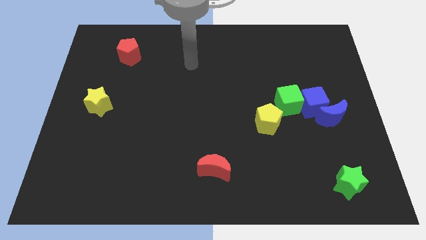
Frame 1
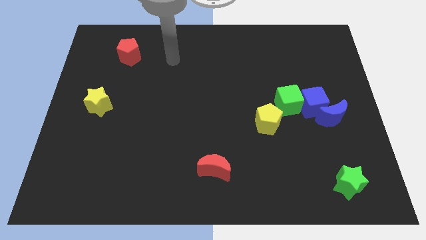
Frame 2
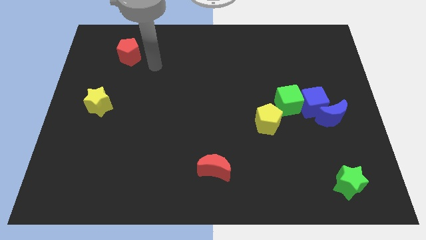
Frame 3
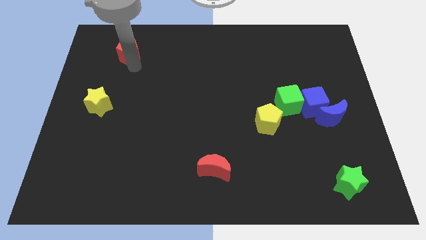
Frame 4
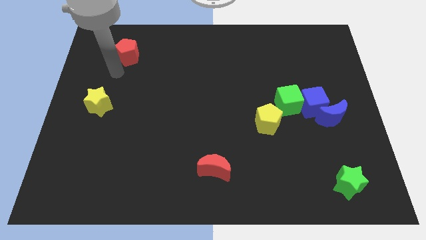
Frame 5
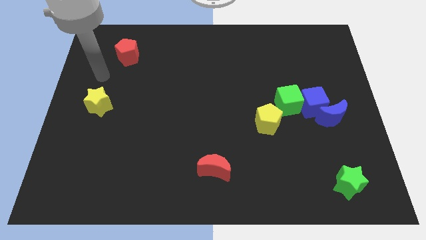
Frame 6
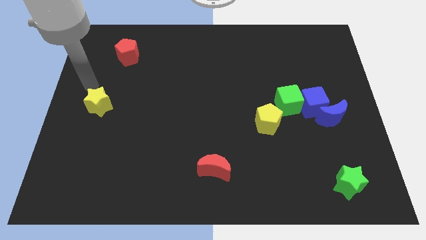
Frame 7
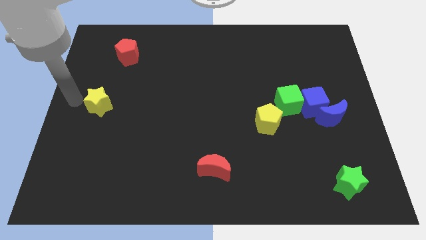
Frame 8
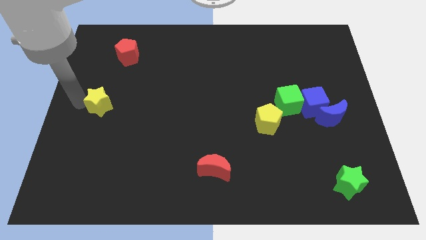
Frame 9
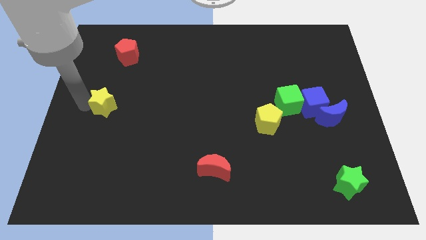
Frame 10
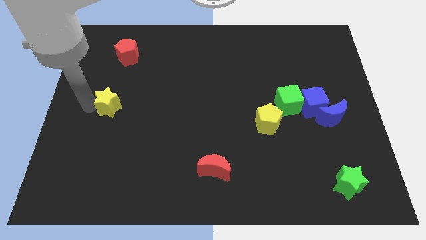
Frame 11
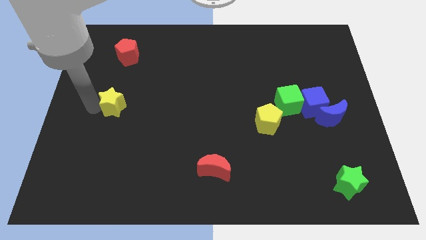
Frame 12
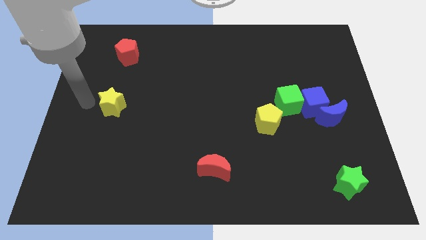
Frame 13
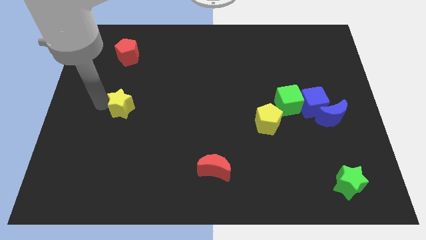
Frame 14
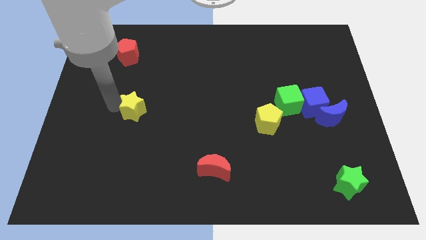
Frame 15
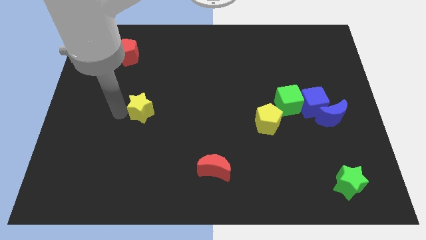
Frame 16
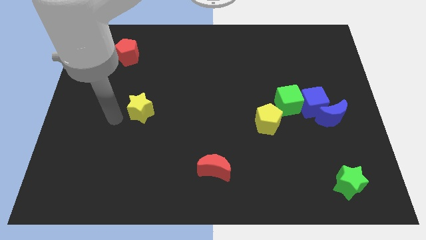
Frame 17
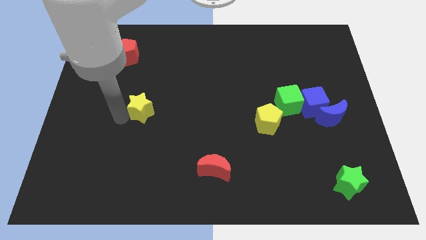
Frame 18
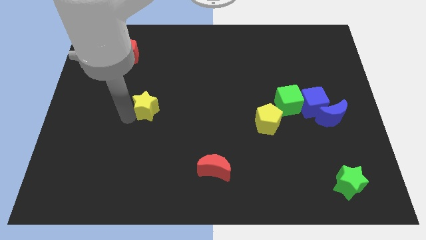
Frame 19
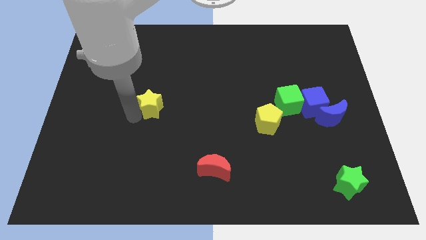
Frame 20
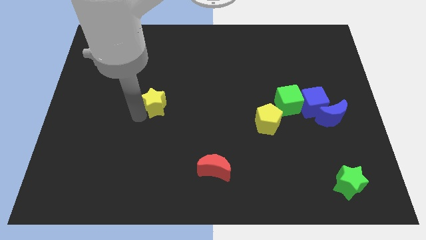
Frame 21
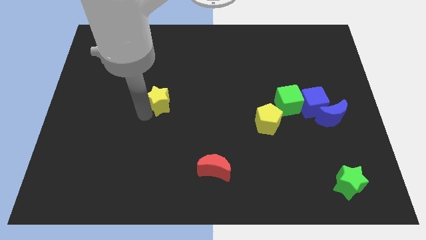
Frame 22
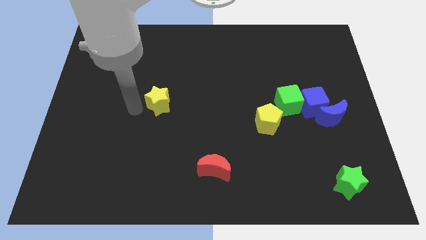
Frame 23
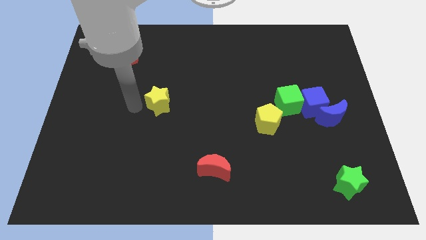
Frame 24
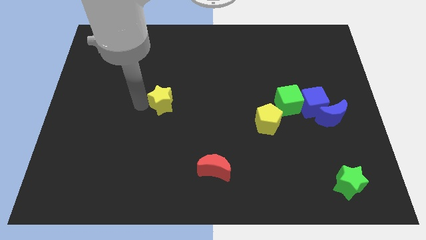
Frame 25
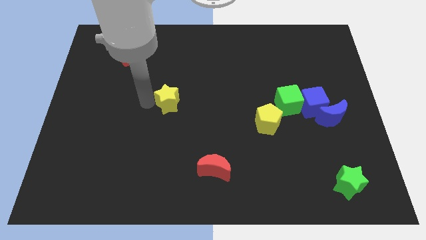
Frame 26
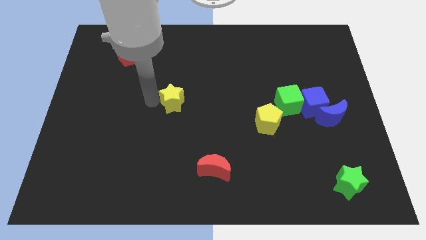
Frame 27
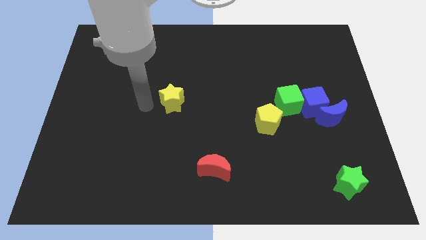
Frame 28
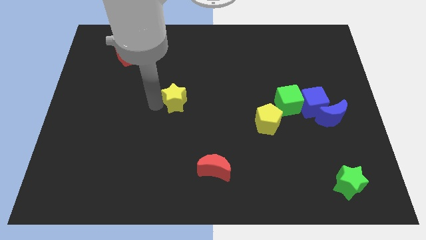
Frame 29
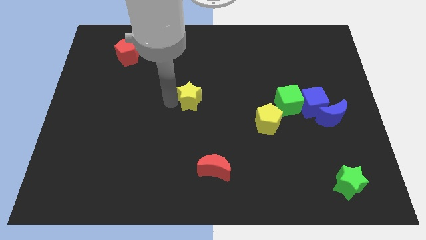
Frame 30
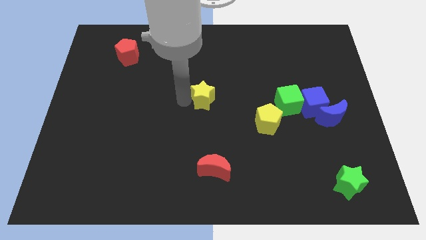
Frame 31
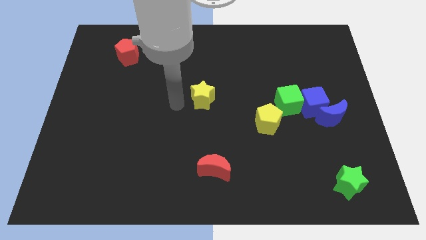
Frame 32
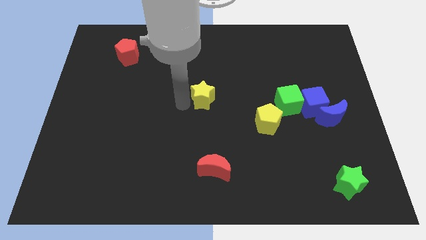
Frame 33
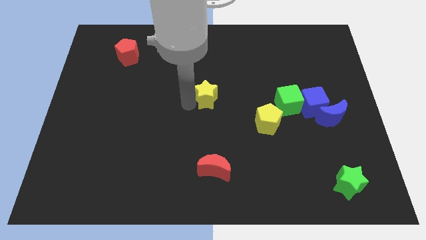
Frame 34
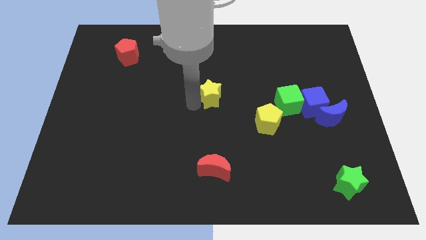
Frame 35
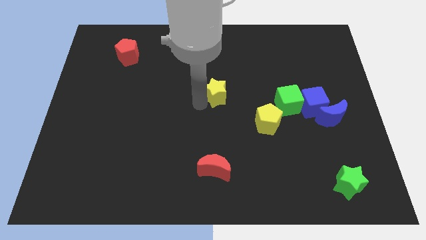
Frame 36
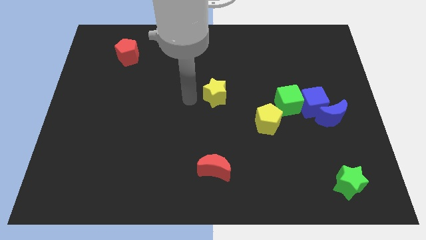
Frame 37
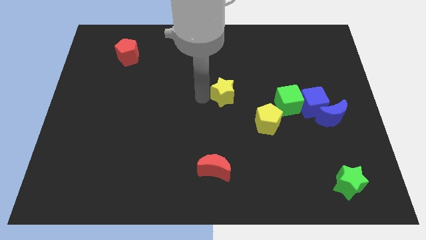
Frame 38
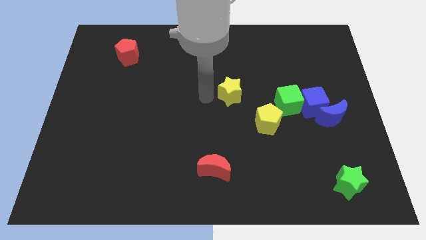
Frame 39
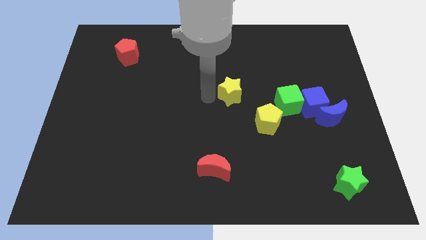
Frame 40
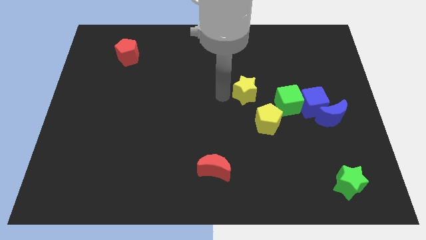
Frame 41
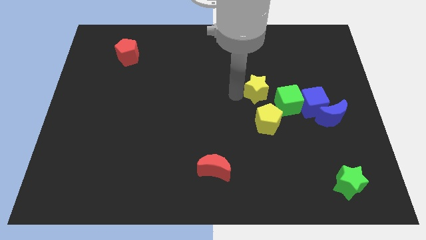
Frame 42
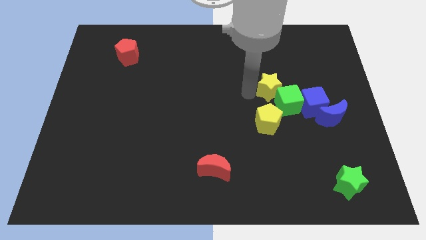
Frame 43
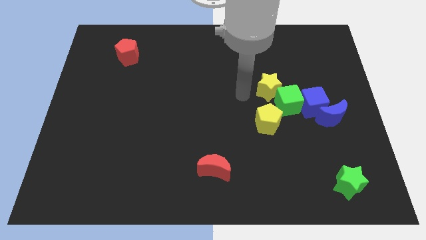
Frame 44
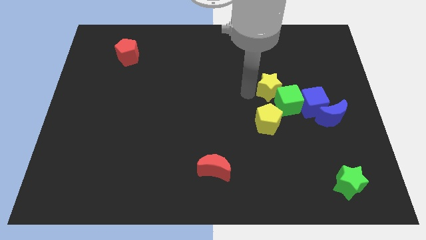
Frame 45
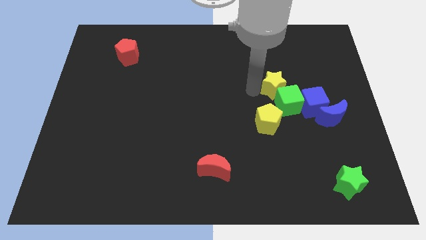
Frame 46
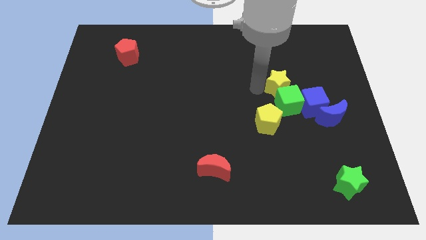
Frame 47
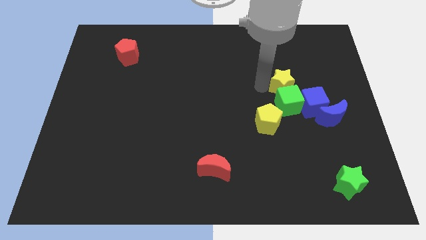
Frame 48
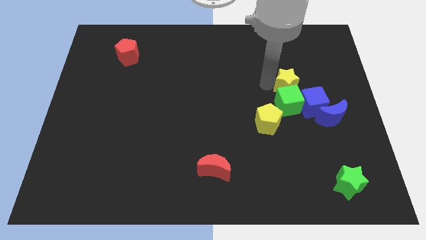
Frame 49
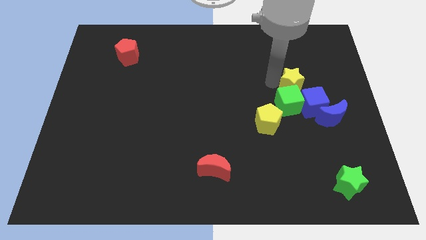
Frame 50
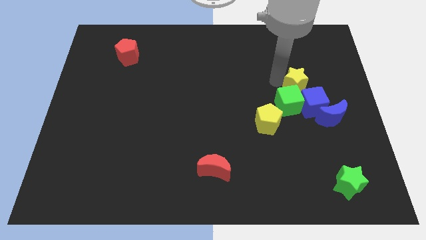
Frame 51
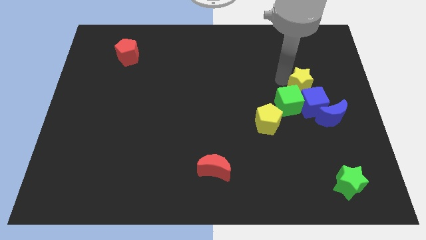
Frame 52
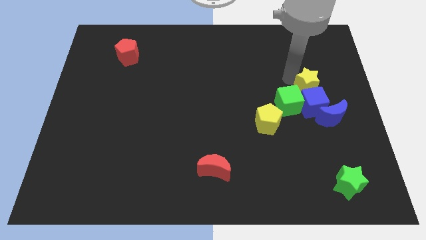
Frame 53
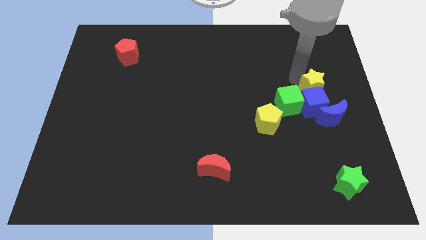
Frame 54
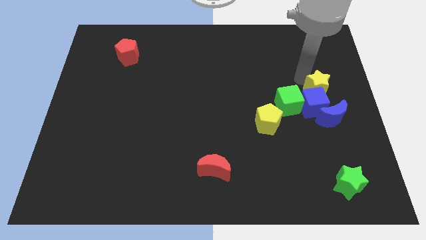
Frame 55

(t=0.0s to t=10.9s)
slide the yellow star to the center right

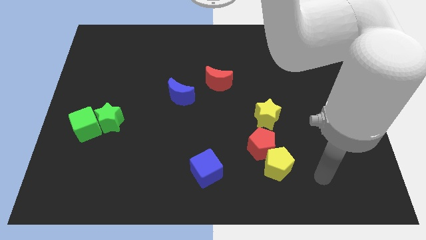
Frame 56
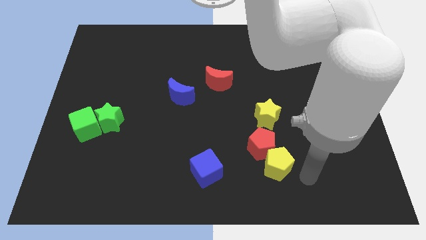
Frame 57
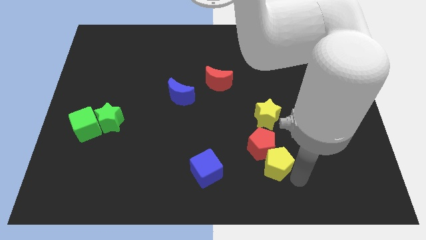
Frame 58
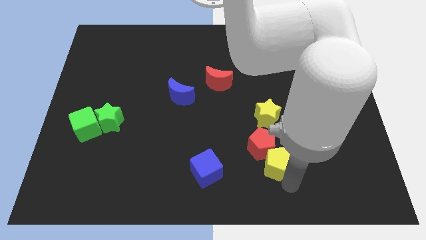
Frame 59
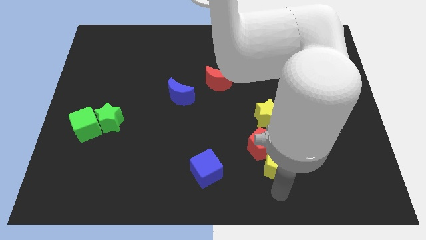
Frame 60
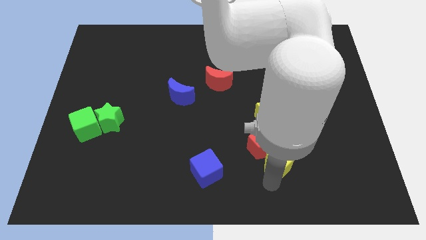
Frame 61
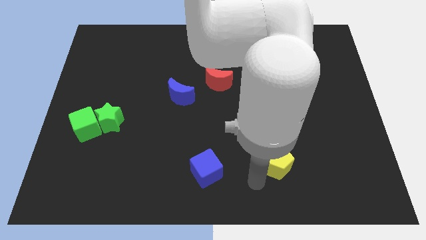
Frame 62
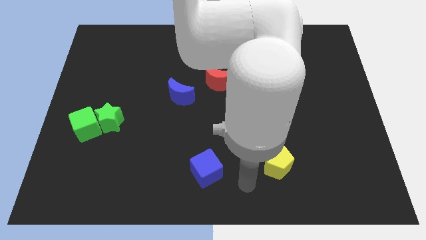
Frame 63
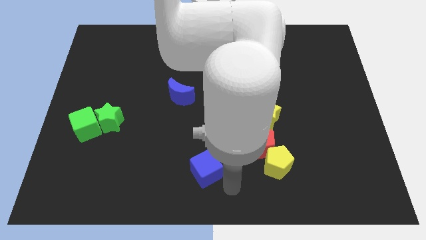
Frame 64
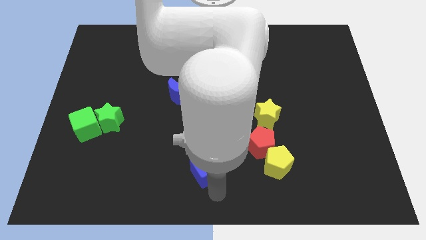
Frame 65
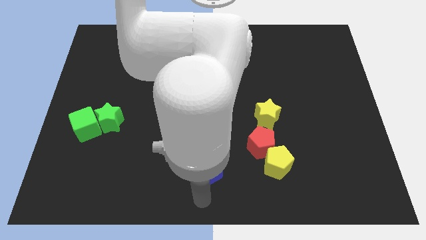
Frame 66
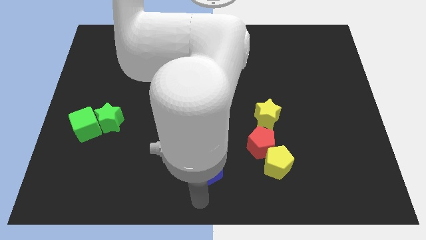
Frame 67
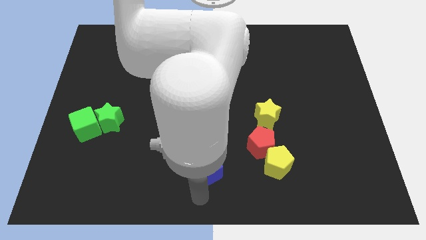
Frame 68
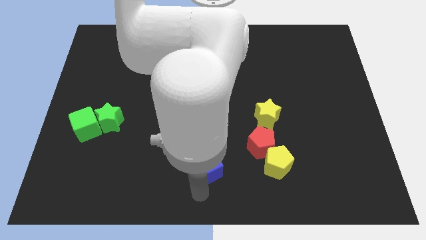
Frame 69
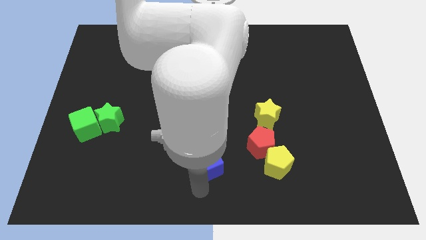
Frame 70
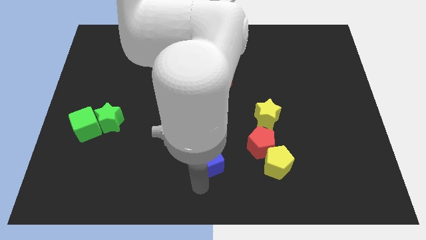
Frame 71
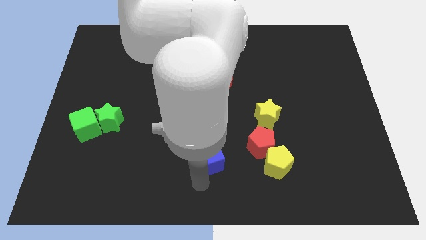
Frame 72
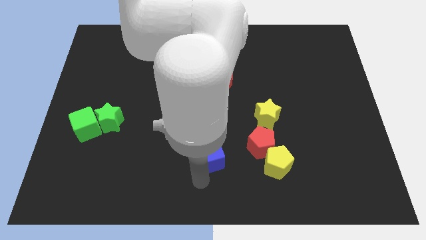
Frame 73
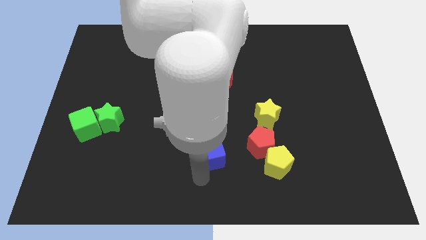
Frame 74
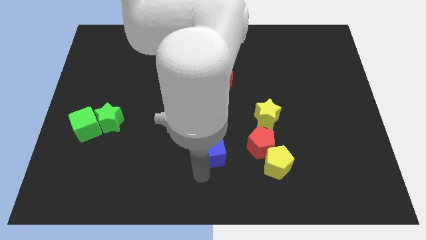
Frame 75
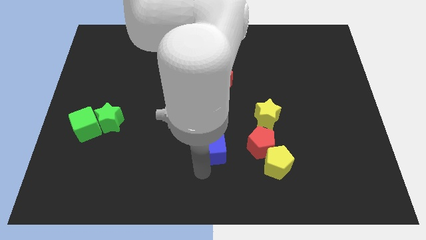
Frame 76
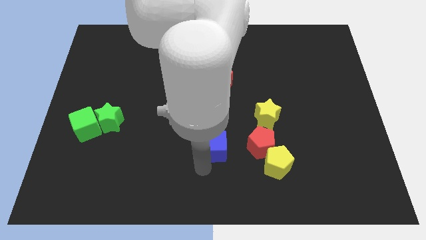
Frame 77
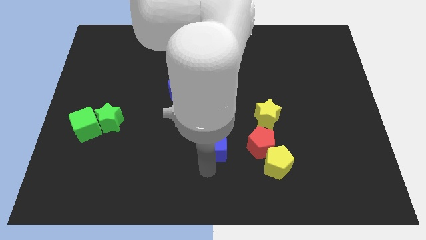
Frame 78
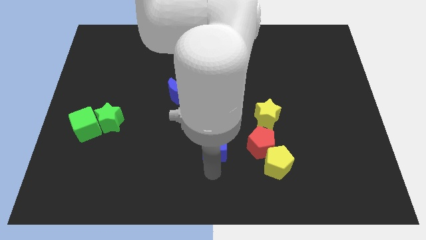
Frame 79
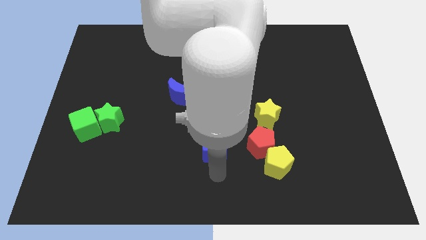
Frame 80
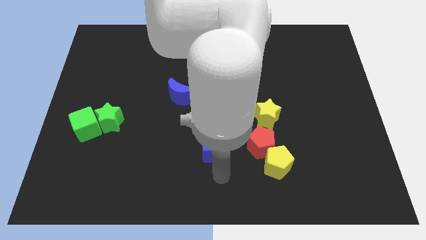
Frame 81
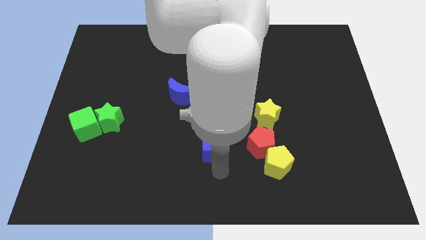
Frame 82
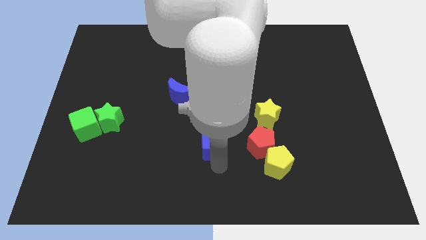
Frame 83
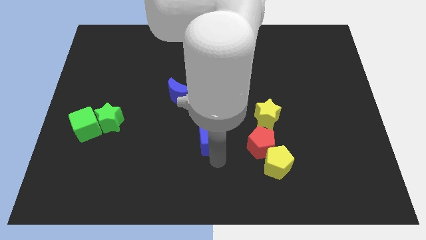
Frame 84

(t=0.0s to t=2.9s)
put the blue cube to the center
